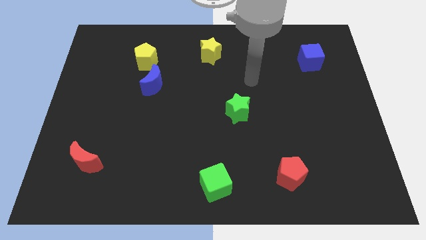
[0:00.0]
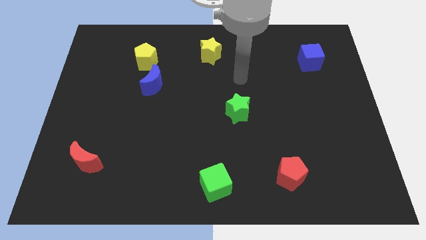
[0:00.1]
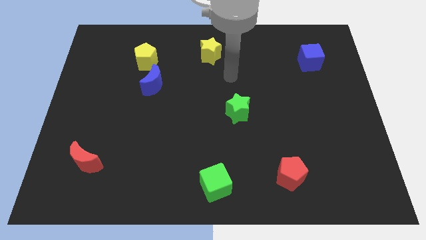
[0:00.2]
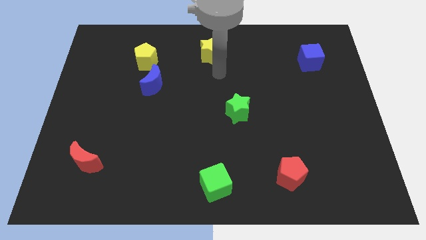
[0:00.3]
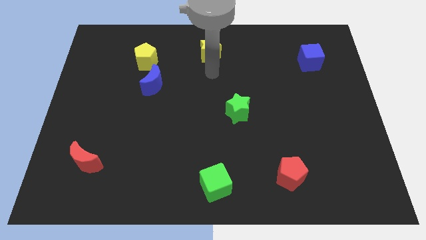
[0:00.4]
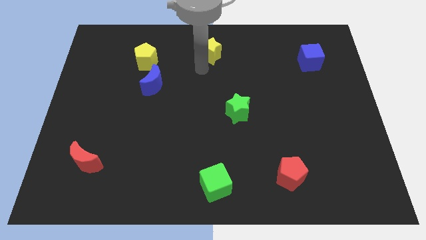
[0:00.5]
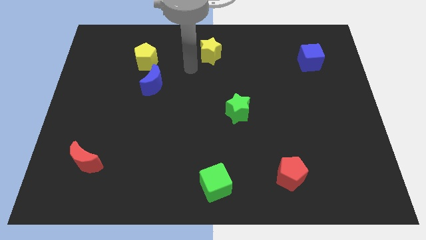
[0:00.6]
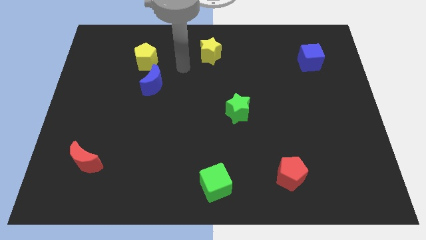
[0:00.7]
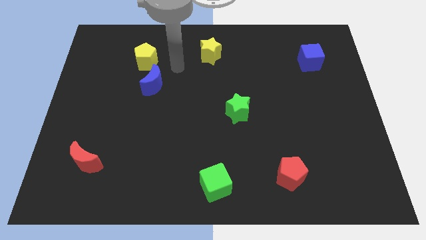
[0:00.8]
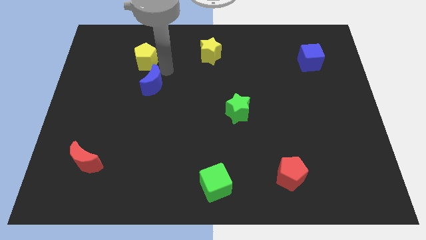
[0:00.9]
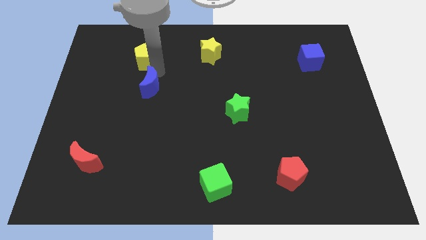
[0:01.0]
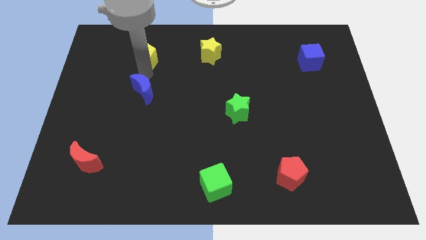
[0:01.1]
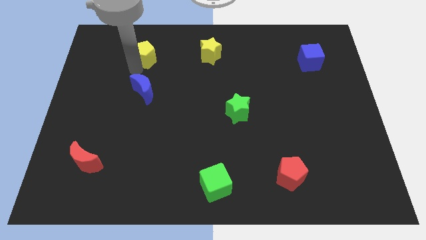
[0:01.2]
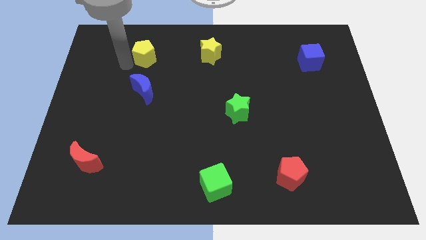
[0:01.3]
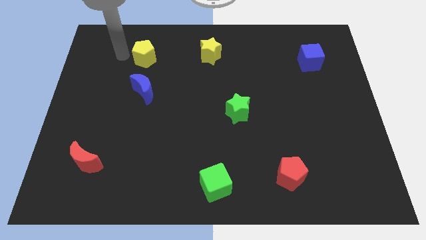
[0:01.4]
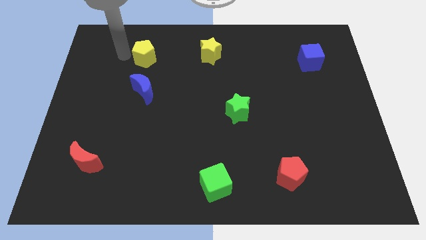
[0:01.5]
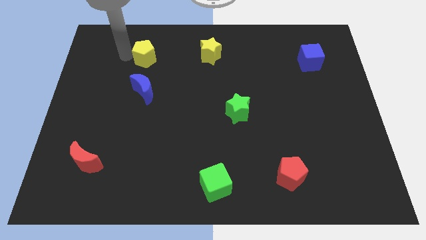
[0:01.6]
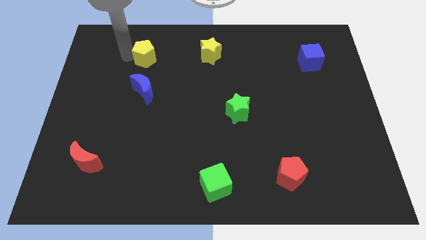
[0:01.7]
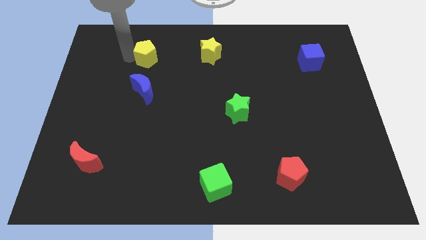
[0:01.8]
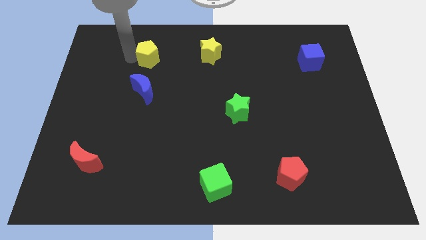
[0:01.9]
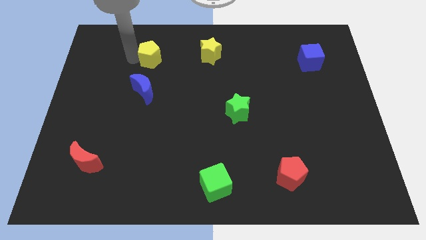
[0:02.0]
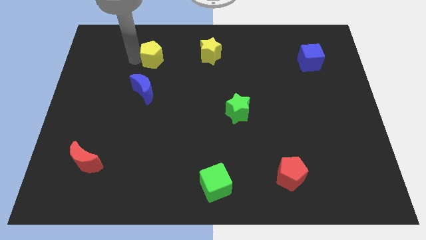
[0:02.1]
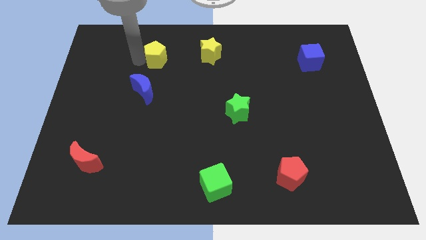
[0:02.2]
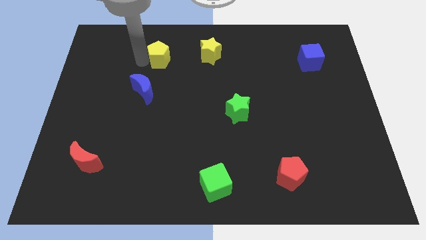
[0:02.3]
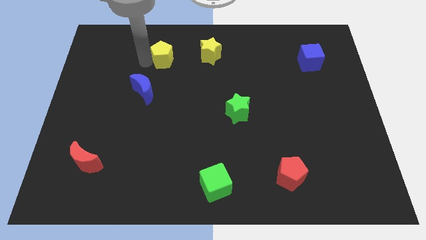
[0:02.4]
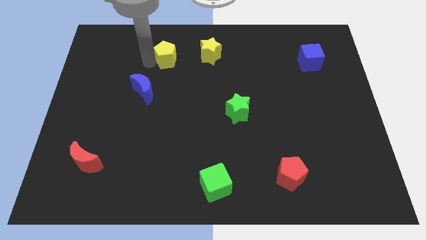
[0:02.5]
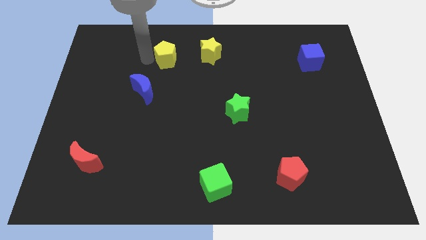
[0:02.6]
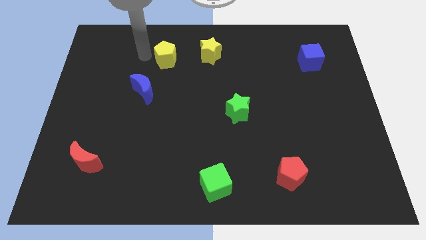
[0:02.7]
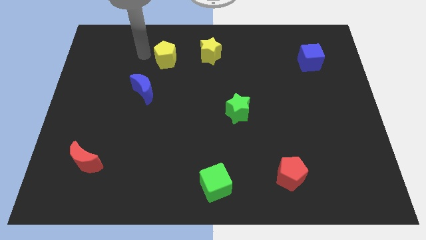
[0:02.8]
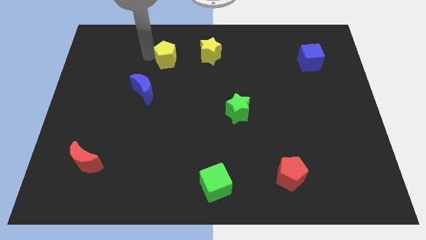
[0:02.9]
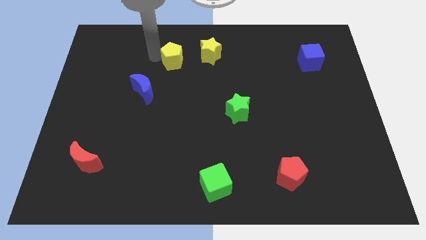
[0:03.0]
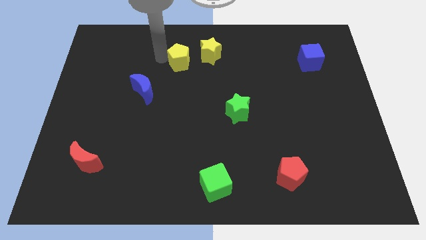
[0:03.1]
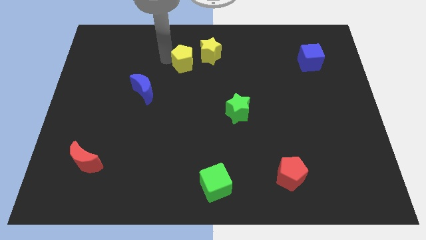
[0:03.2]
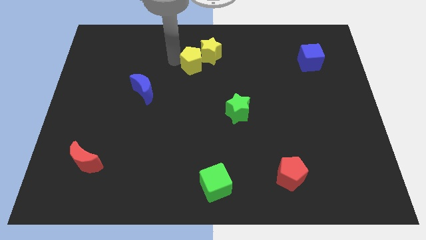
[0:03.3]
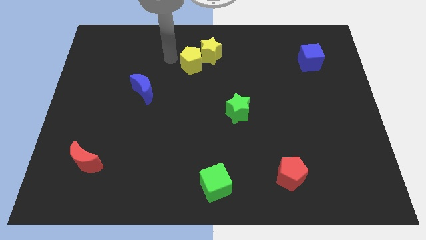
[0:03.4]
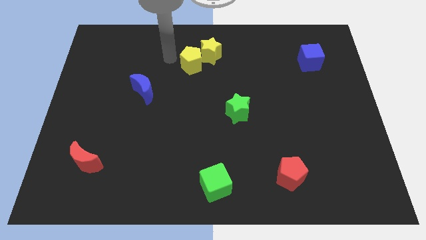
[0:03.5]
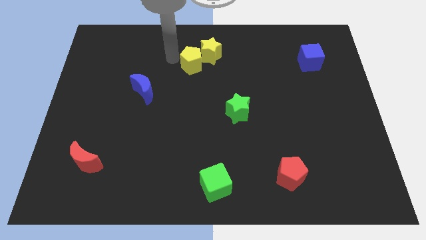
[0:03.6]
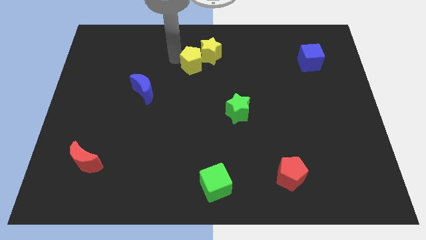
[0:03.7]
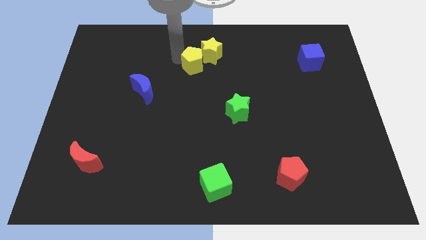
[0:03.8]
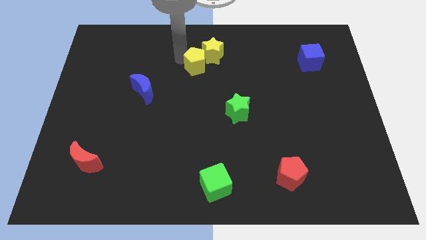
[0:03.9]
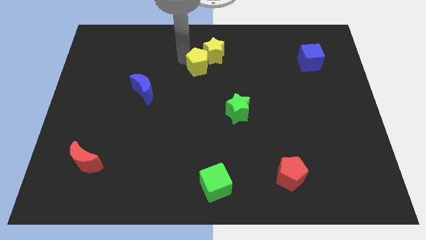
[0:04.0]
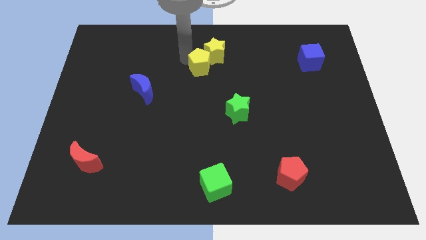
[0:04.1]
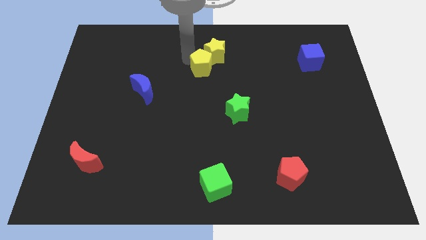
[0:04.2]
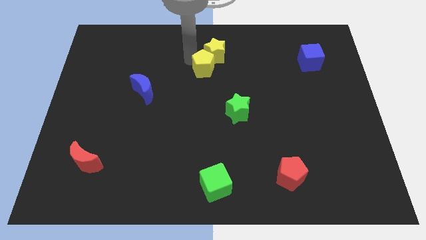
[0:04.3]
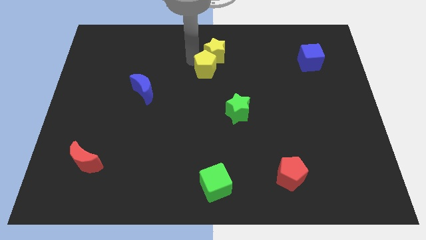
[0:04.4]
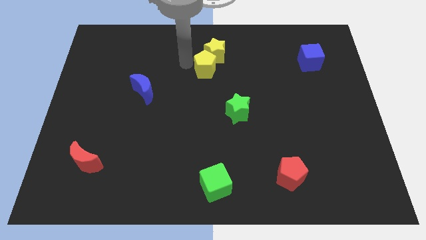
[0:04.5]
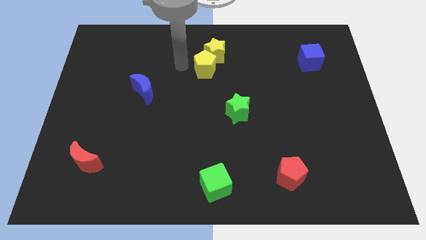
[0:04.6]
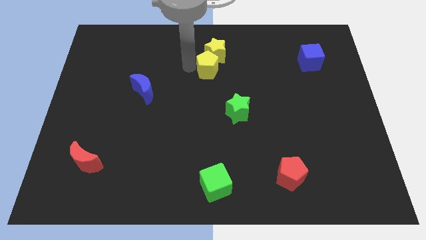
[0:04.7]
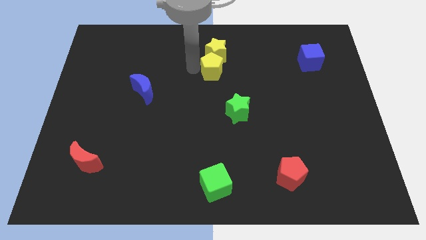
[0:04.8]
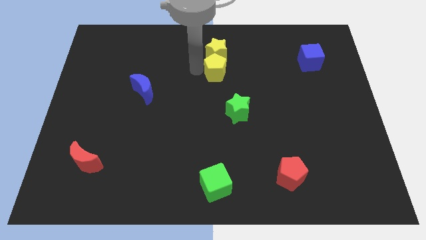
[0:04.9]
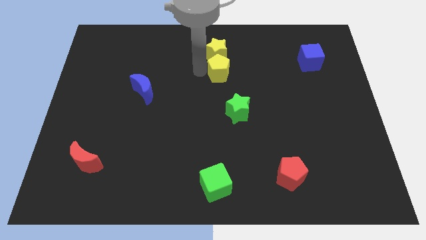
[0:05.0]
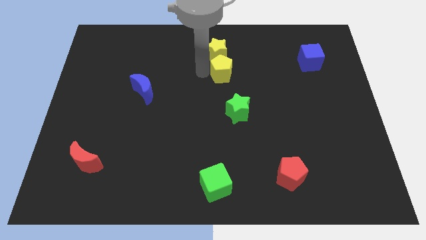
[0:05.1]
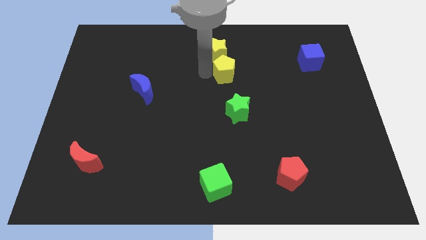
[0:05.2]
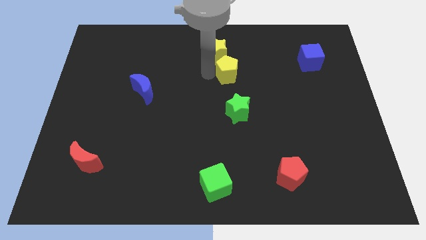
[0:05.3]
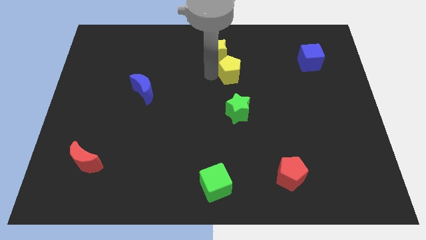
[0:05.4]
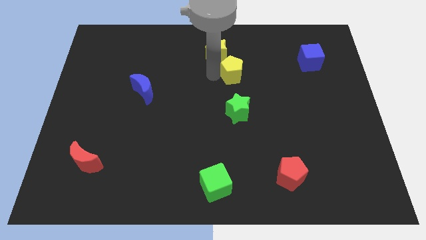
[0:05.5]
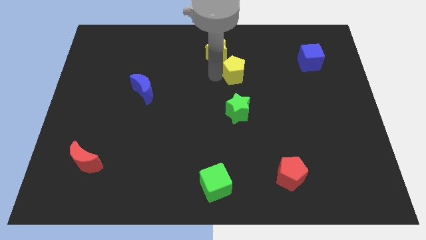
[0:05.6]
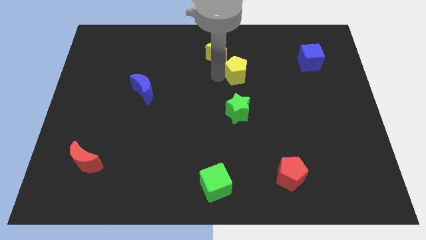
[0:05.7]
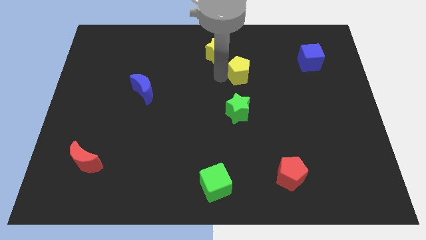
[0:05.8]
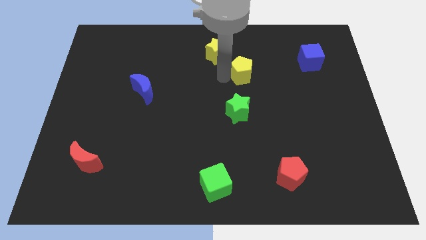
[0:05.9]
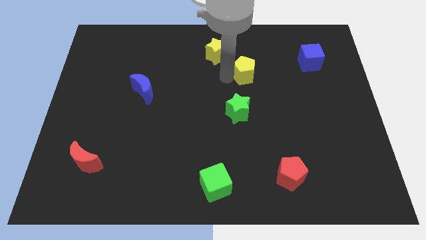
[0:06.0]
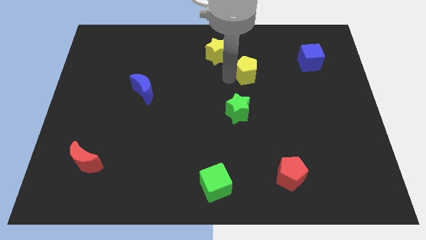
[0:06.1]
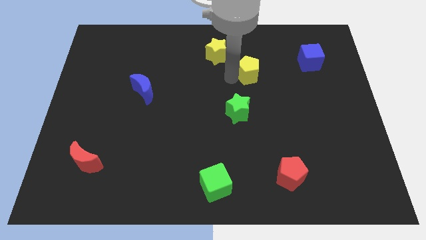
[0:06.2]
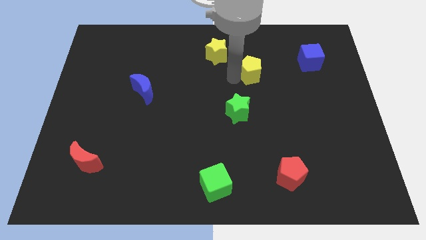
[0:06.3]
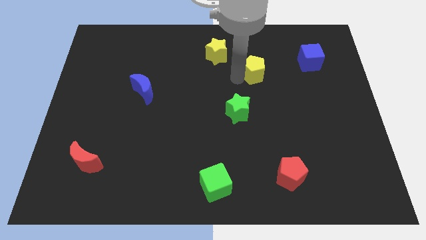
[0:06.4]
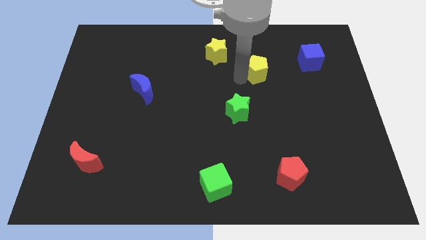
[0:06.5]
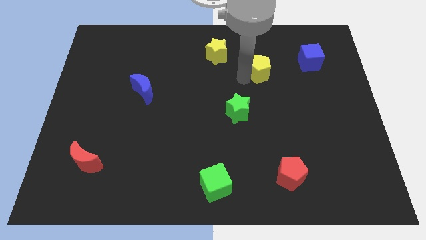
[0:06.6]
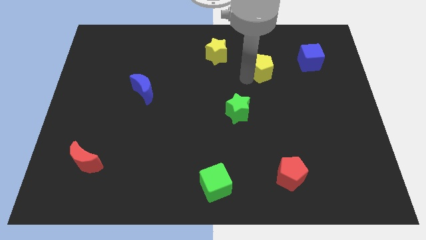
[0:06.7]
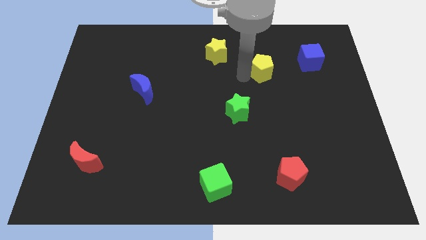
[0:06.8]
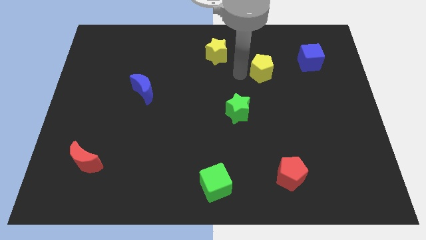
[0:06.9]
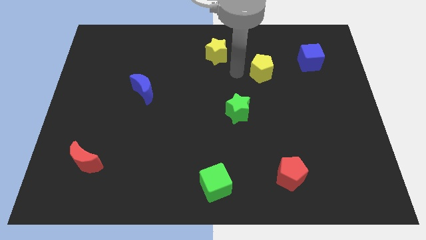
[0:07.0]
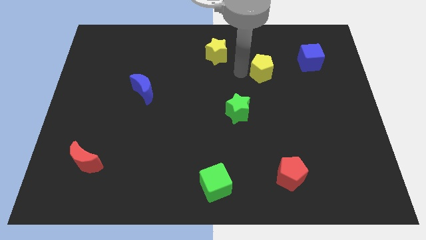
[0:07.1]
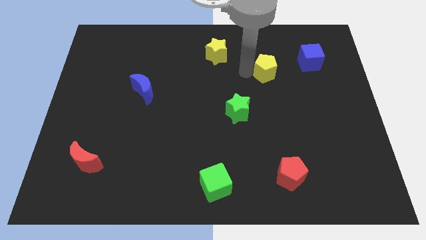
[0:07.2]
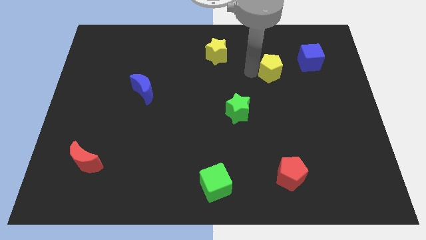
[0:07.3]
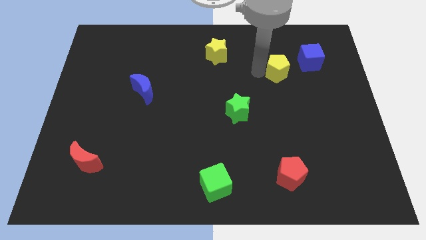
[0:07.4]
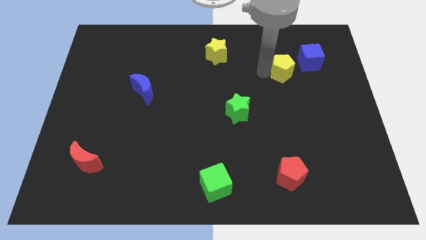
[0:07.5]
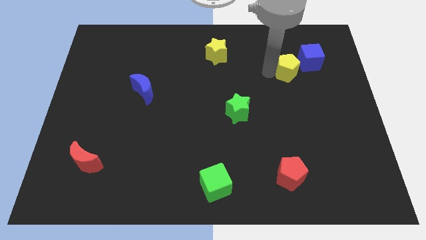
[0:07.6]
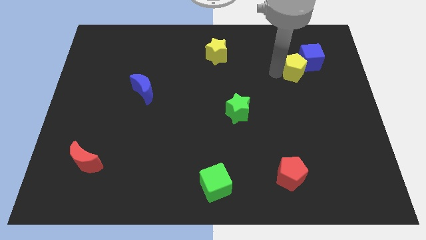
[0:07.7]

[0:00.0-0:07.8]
move the yellow pentagon towards the blue cube
